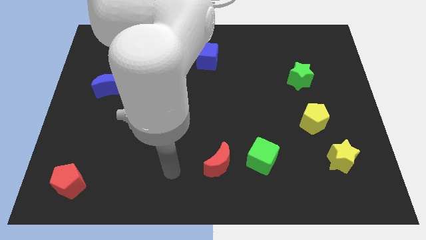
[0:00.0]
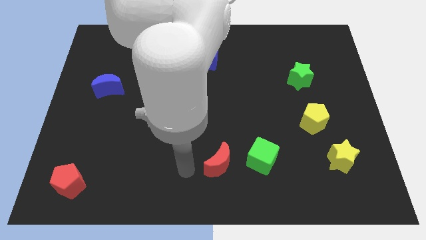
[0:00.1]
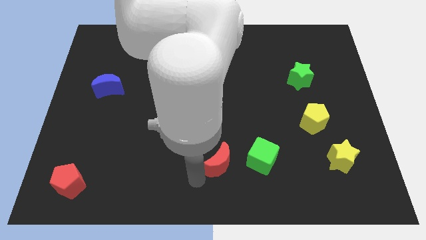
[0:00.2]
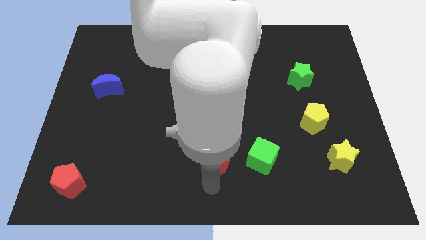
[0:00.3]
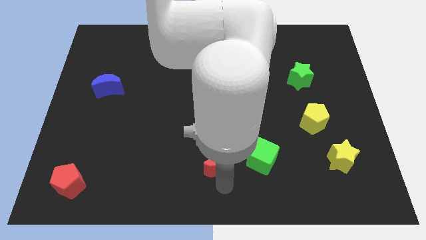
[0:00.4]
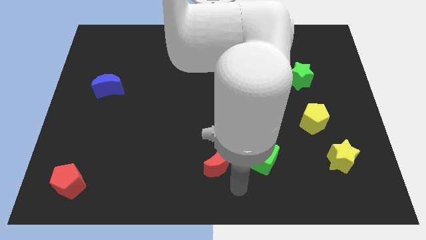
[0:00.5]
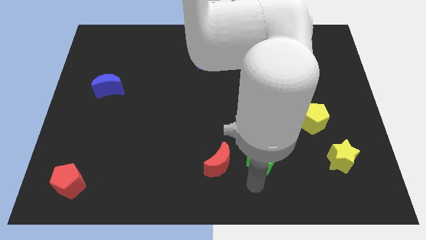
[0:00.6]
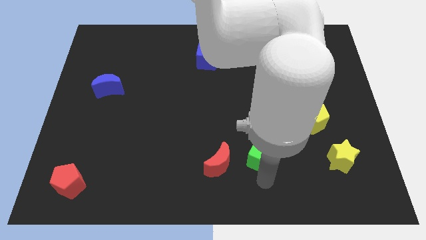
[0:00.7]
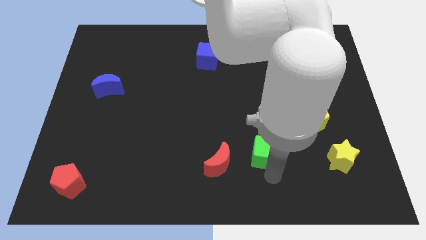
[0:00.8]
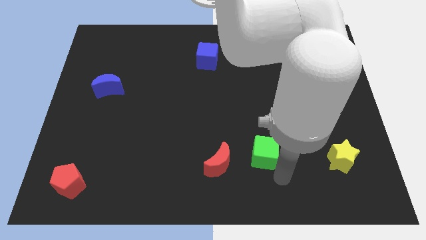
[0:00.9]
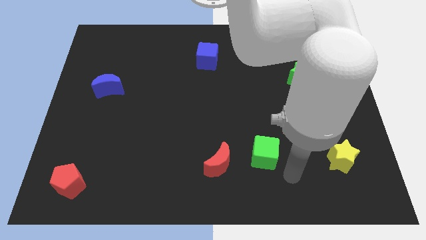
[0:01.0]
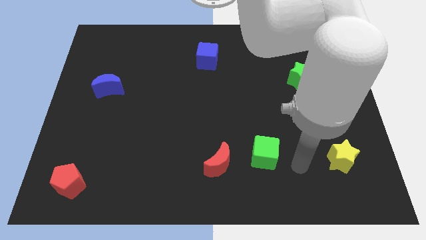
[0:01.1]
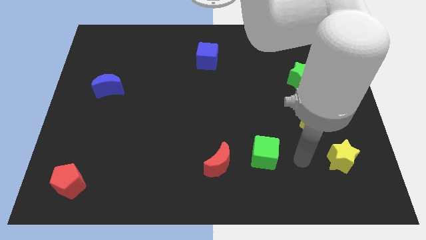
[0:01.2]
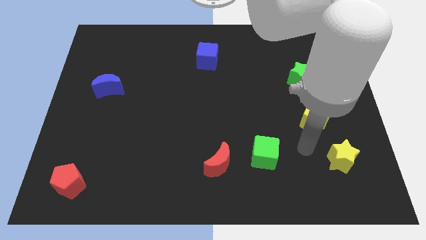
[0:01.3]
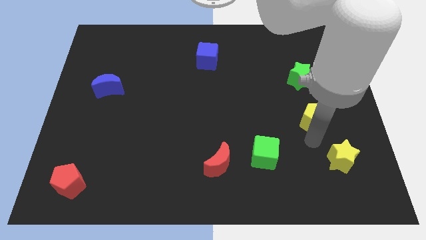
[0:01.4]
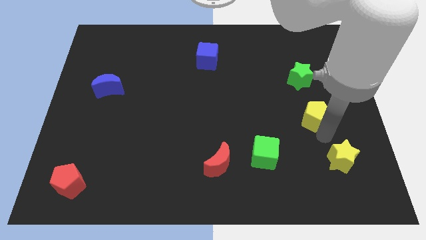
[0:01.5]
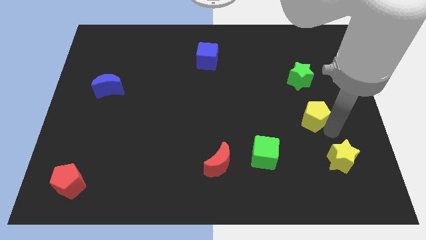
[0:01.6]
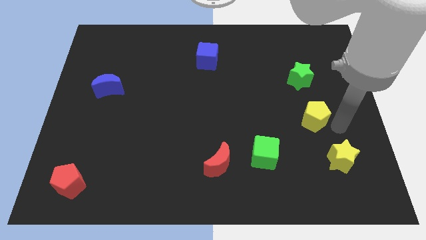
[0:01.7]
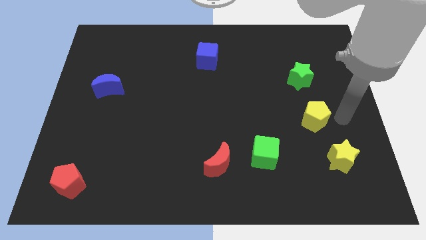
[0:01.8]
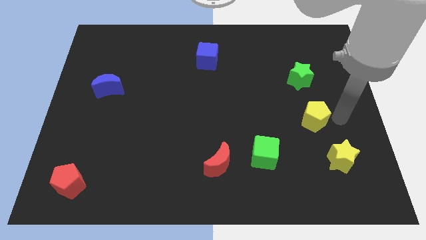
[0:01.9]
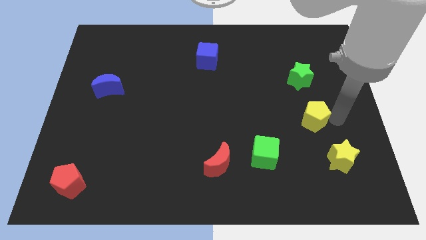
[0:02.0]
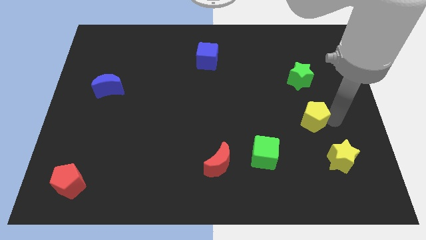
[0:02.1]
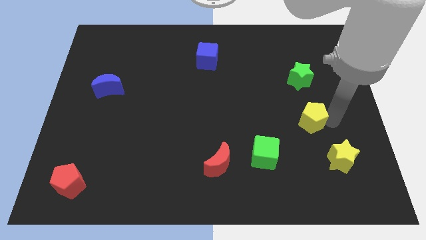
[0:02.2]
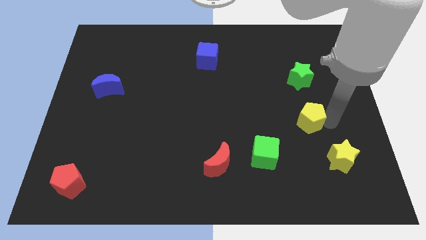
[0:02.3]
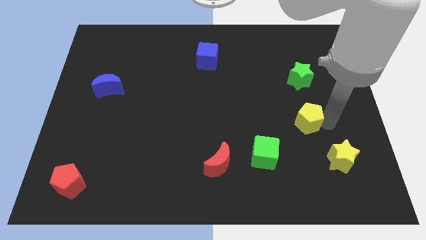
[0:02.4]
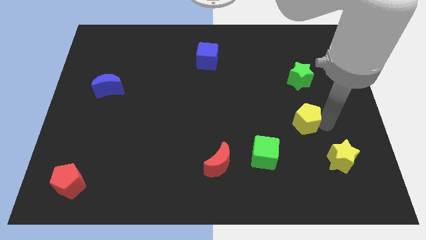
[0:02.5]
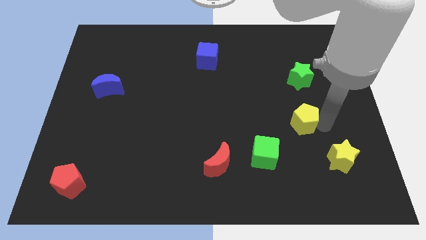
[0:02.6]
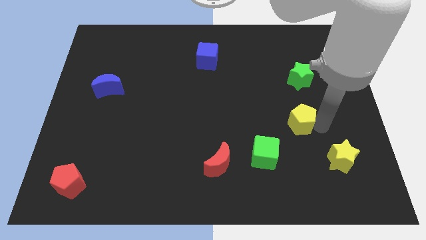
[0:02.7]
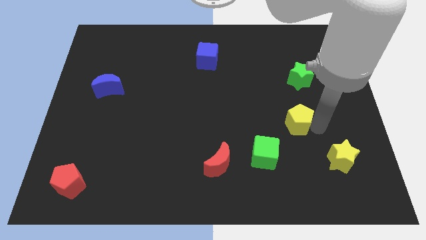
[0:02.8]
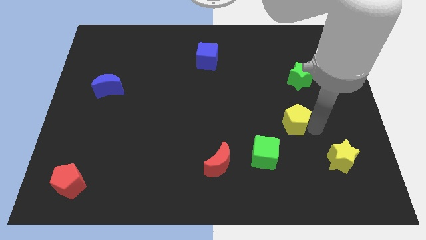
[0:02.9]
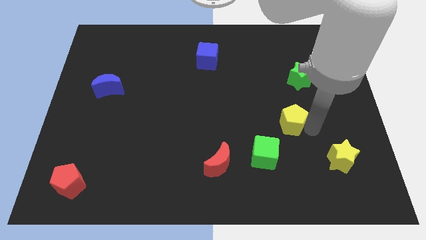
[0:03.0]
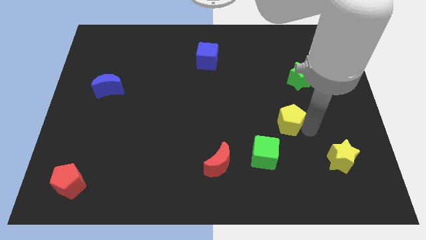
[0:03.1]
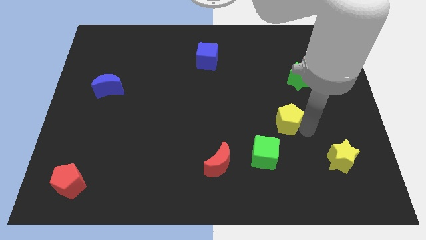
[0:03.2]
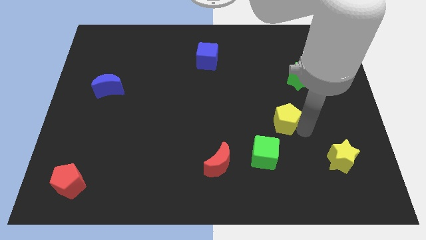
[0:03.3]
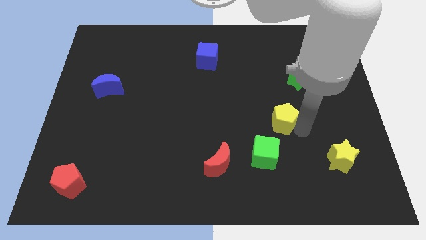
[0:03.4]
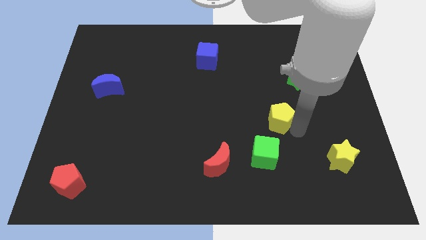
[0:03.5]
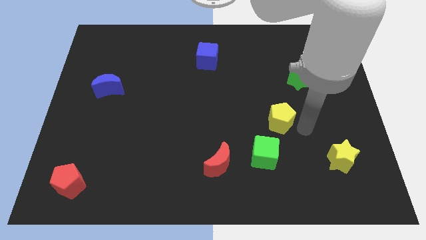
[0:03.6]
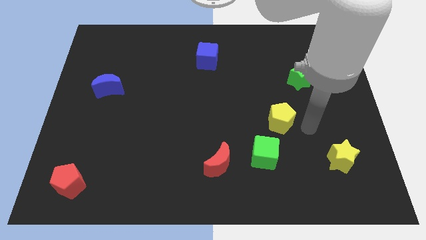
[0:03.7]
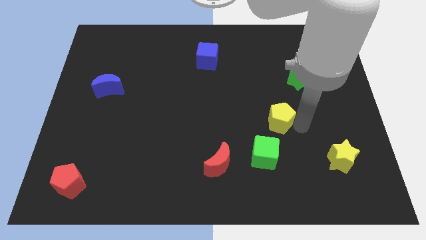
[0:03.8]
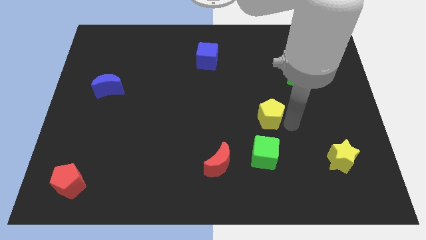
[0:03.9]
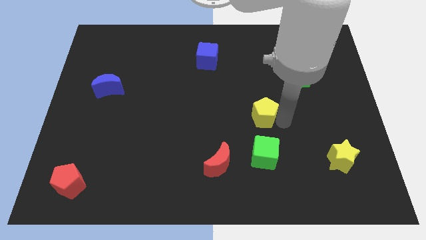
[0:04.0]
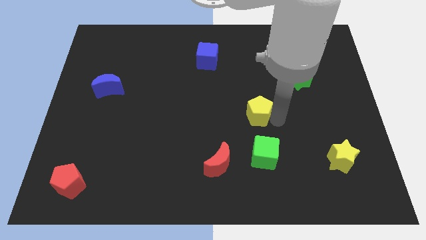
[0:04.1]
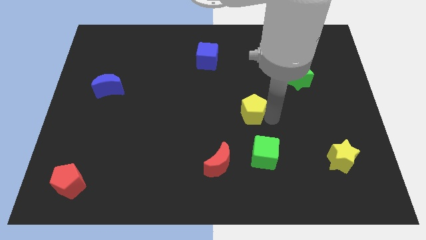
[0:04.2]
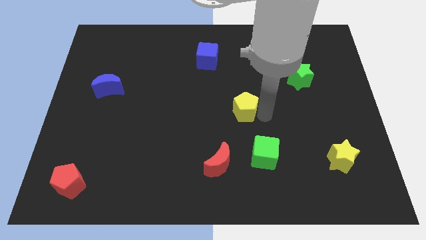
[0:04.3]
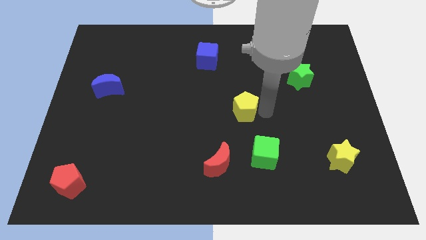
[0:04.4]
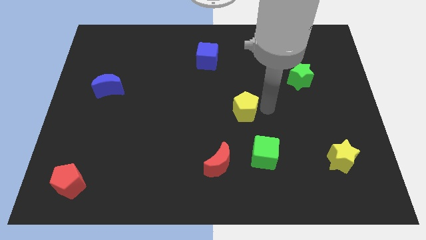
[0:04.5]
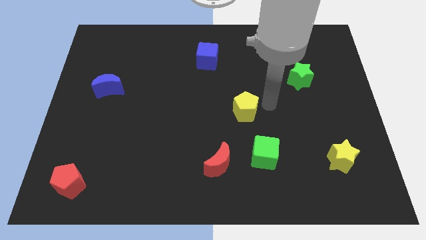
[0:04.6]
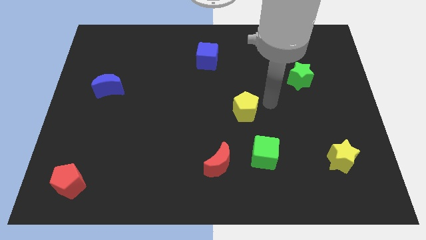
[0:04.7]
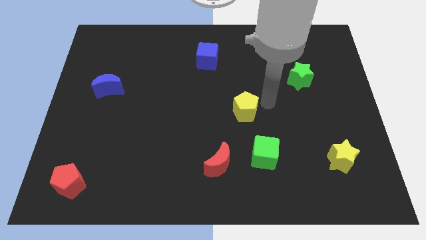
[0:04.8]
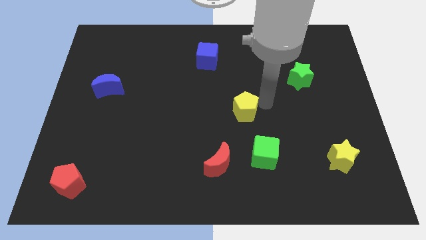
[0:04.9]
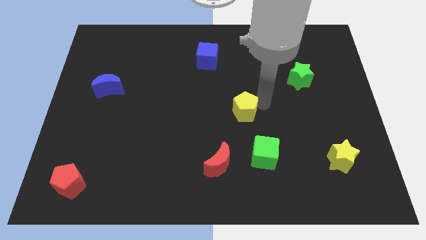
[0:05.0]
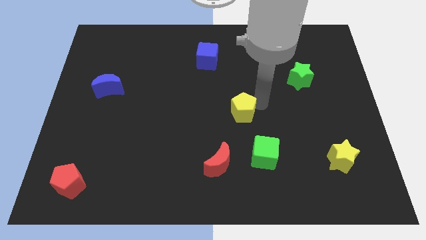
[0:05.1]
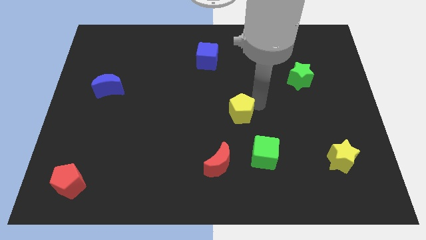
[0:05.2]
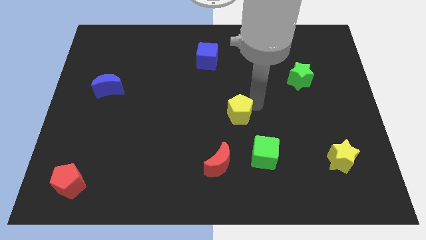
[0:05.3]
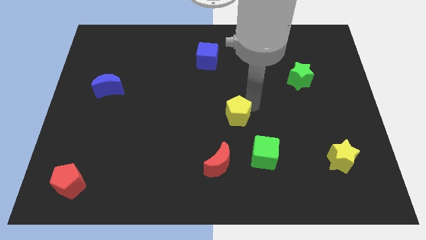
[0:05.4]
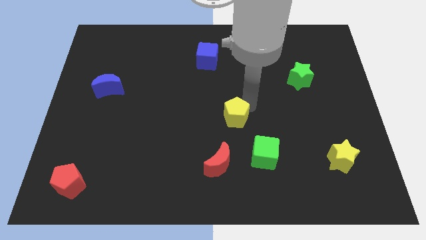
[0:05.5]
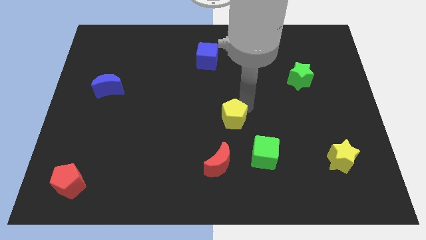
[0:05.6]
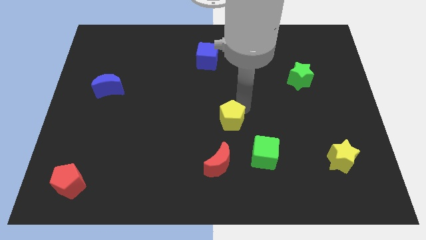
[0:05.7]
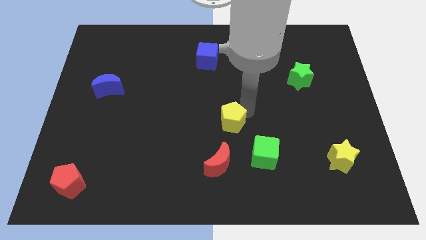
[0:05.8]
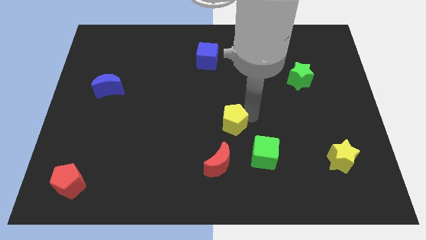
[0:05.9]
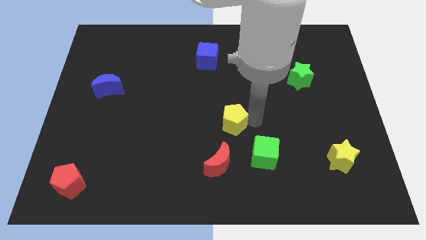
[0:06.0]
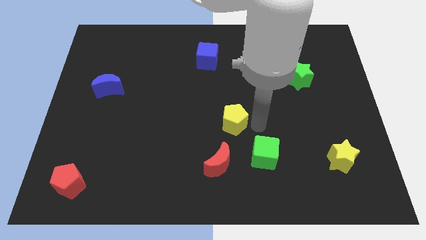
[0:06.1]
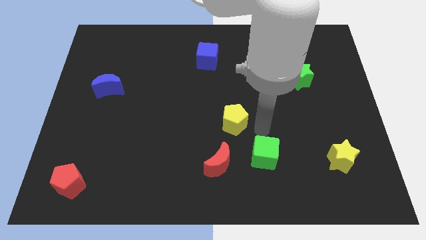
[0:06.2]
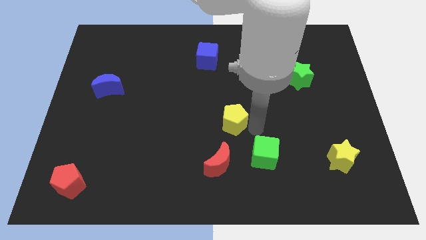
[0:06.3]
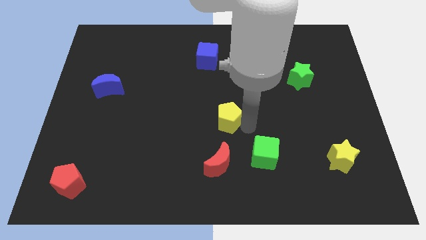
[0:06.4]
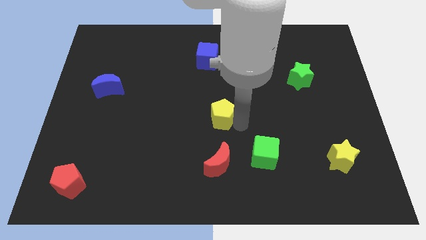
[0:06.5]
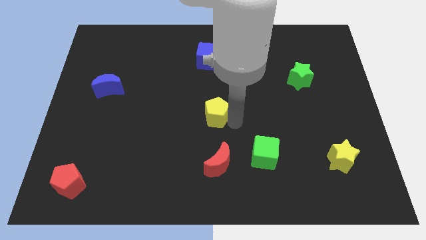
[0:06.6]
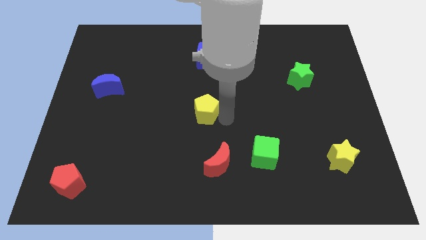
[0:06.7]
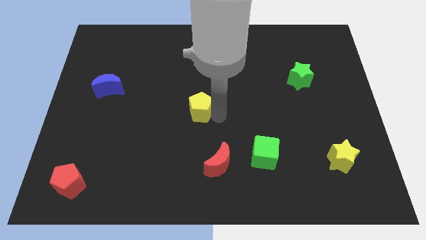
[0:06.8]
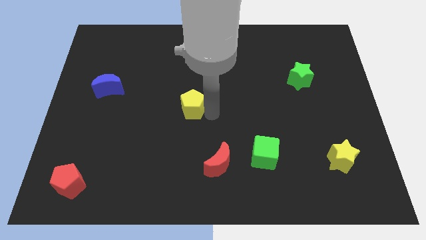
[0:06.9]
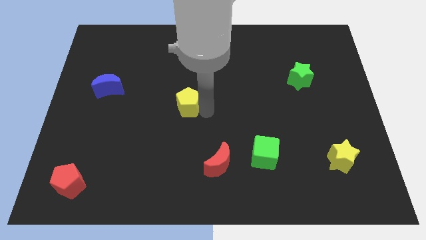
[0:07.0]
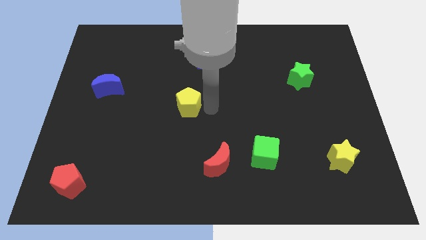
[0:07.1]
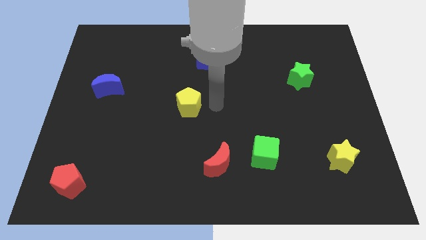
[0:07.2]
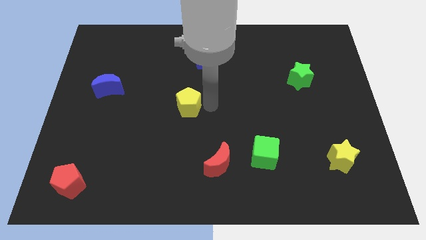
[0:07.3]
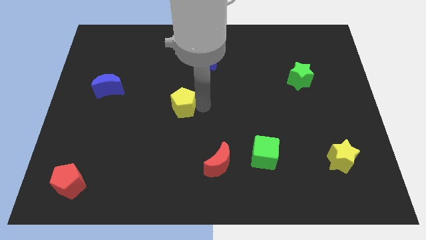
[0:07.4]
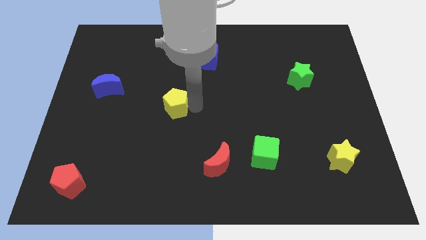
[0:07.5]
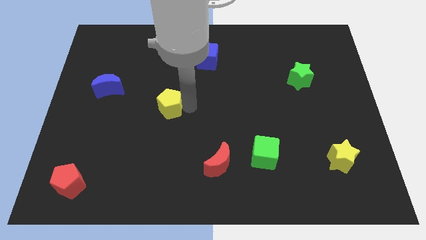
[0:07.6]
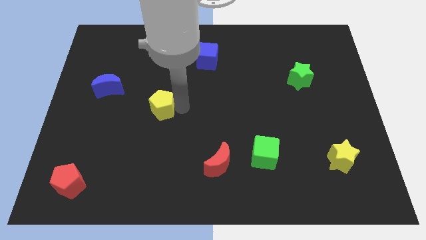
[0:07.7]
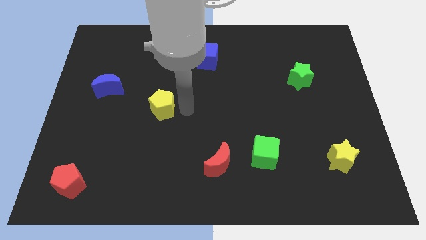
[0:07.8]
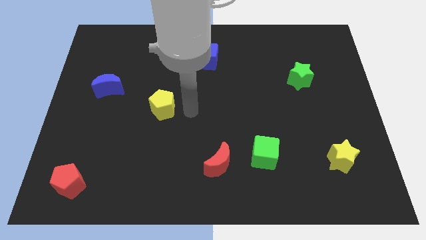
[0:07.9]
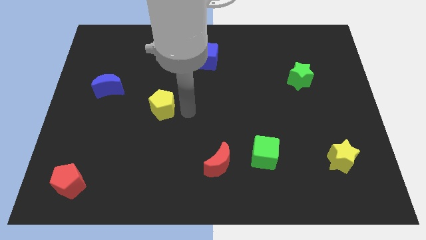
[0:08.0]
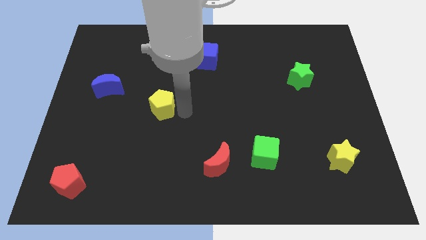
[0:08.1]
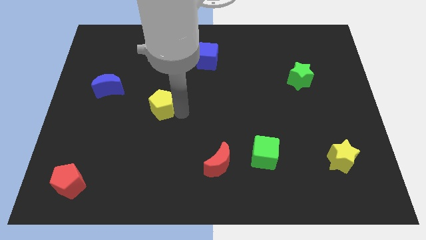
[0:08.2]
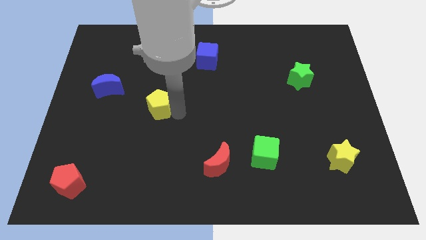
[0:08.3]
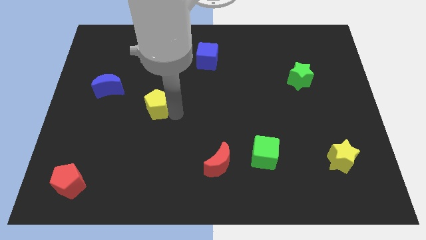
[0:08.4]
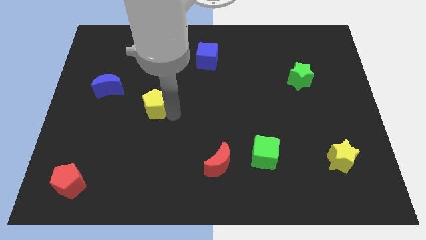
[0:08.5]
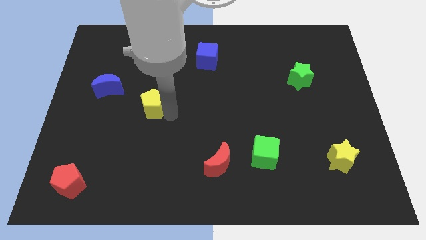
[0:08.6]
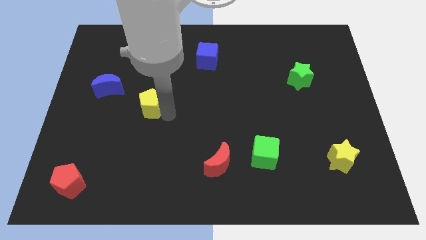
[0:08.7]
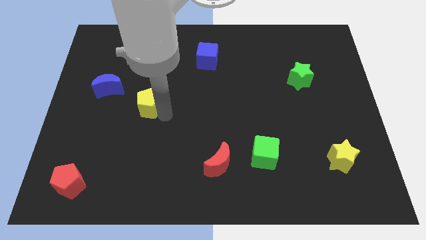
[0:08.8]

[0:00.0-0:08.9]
push the yellow pentagon to the bottom right side of the blue moon
